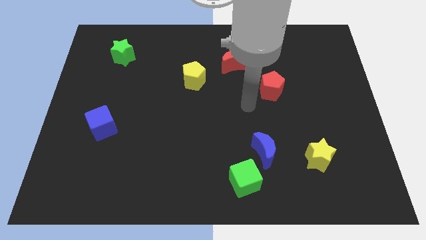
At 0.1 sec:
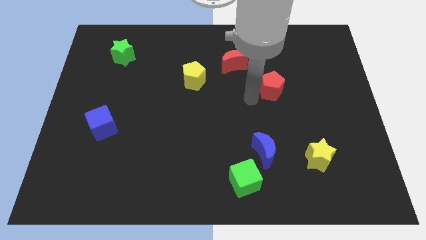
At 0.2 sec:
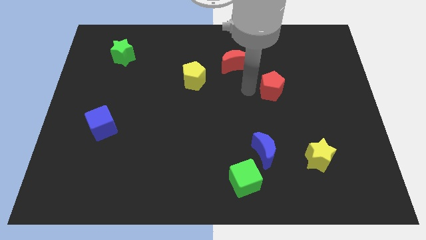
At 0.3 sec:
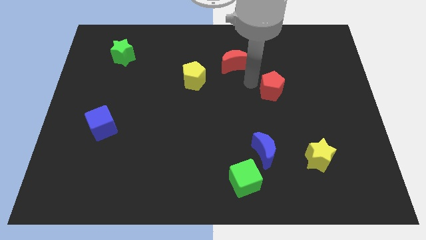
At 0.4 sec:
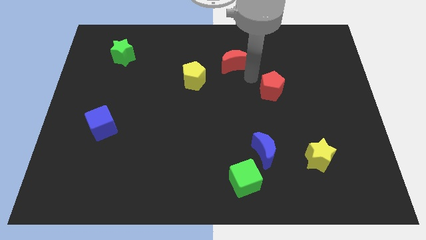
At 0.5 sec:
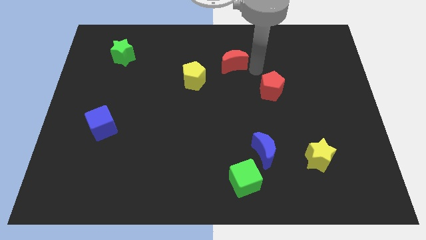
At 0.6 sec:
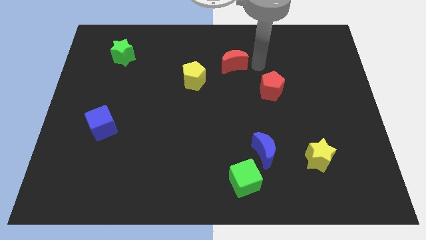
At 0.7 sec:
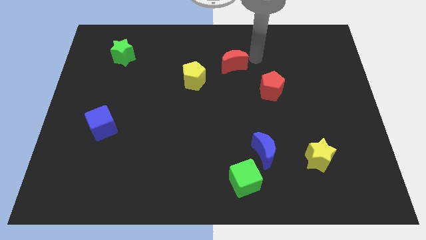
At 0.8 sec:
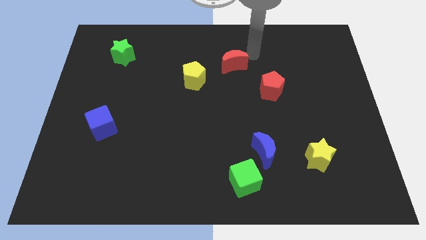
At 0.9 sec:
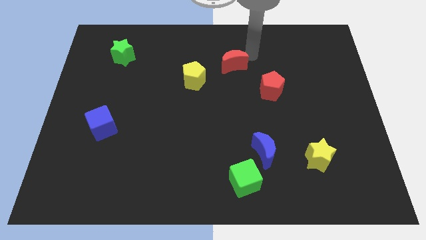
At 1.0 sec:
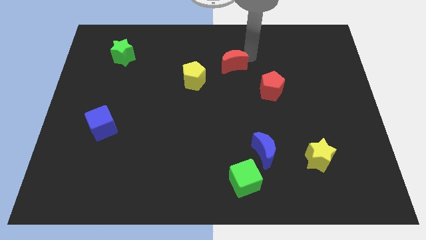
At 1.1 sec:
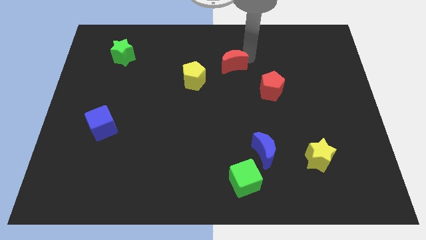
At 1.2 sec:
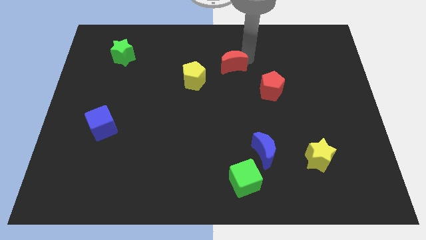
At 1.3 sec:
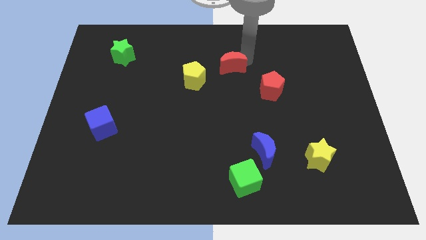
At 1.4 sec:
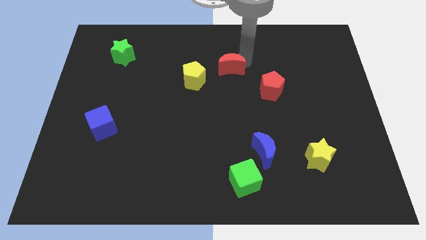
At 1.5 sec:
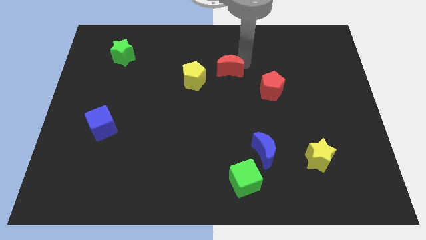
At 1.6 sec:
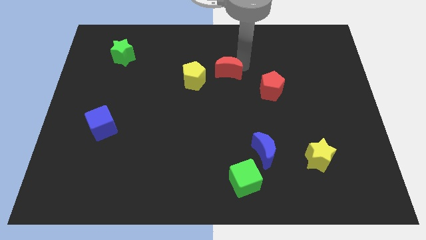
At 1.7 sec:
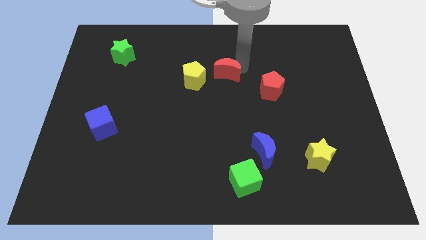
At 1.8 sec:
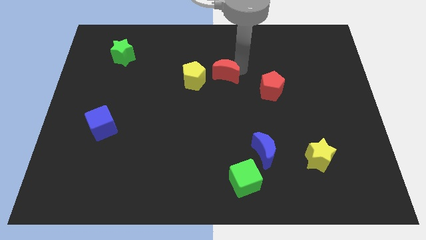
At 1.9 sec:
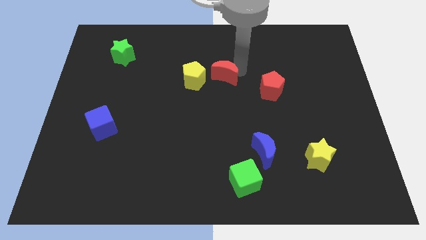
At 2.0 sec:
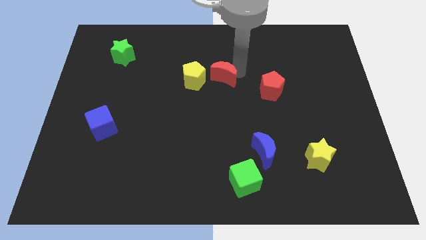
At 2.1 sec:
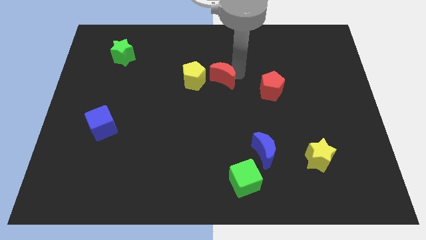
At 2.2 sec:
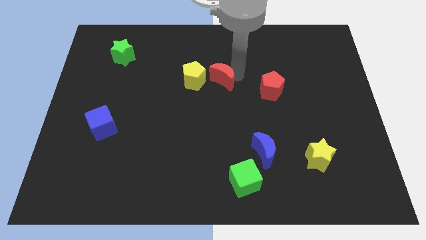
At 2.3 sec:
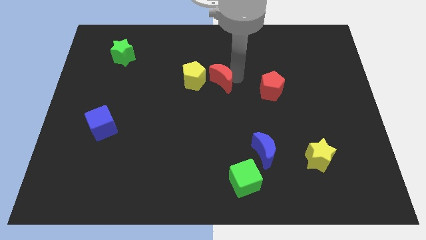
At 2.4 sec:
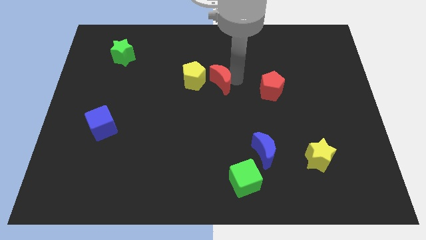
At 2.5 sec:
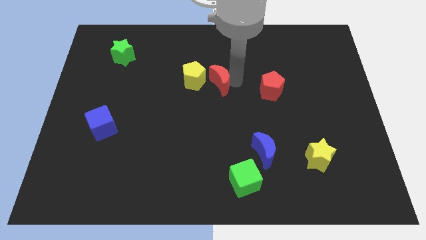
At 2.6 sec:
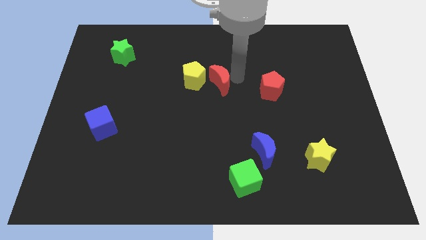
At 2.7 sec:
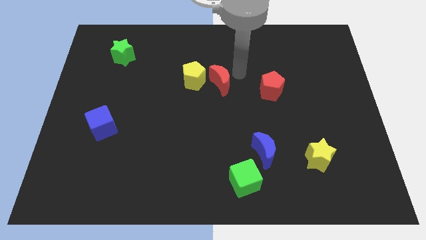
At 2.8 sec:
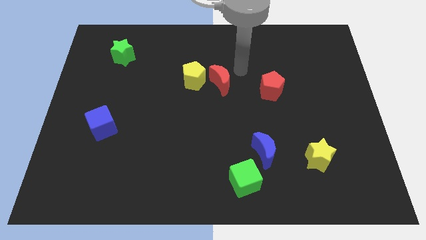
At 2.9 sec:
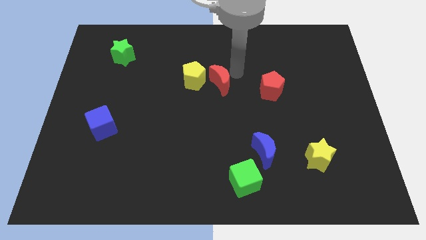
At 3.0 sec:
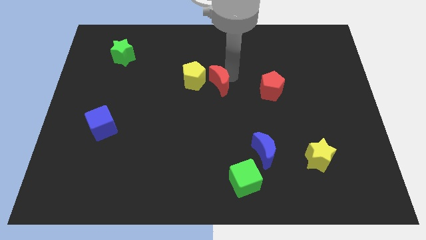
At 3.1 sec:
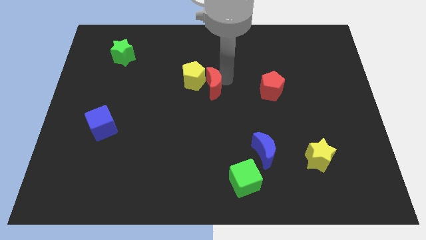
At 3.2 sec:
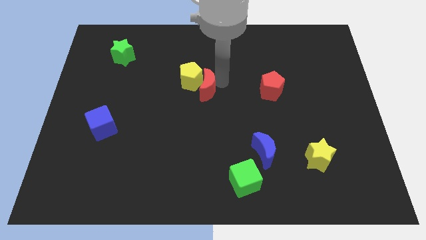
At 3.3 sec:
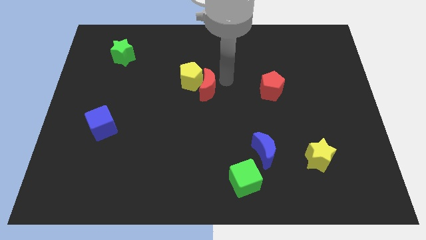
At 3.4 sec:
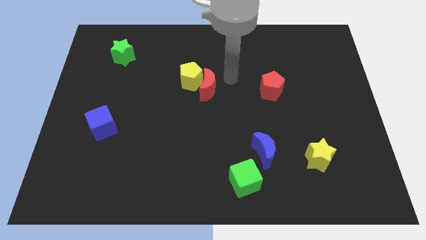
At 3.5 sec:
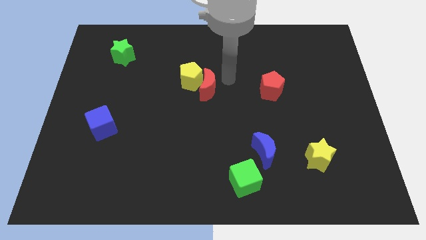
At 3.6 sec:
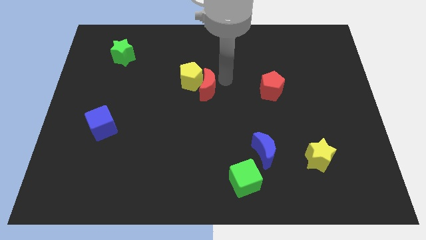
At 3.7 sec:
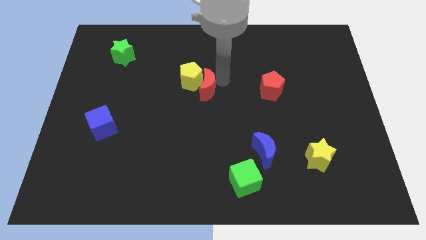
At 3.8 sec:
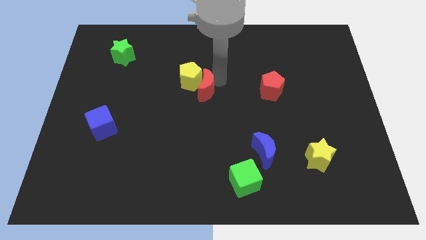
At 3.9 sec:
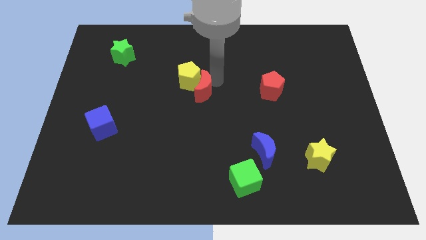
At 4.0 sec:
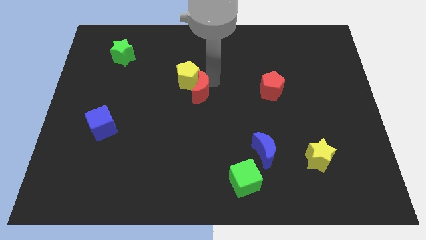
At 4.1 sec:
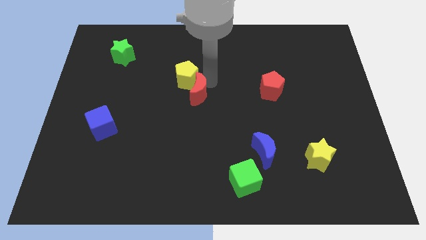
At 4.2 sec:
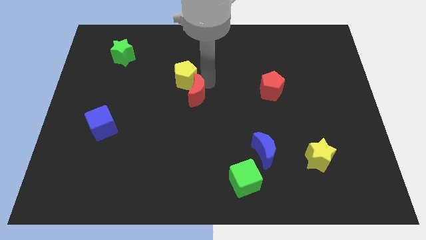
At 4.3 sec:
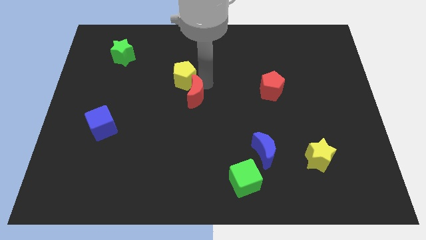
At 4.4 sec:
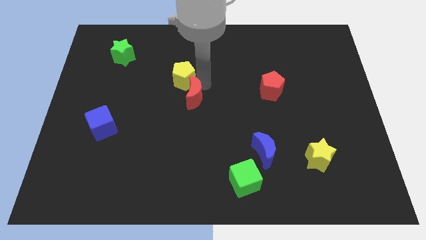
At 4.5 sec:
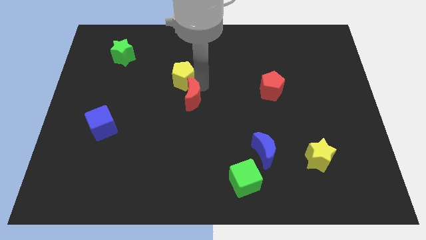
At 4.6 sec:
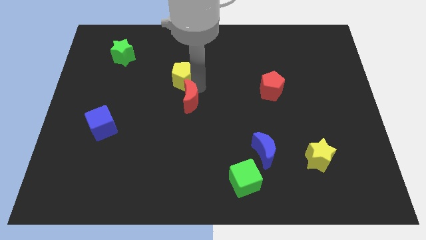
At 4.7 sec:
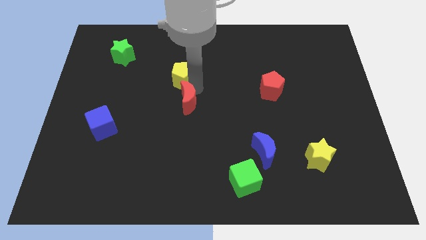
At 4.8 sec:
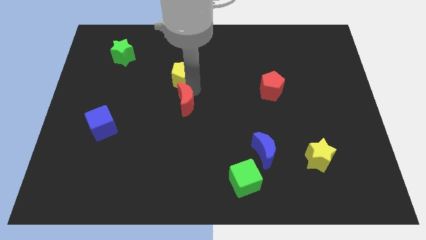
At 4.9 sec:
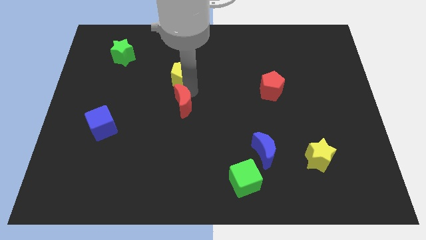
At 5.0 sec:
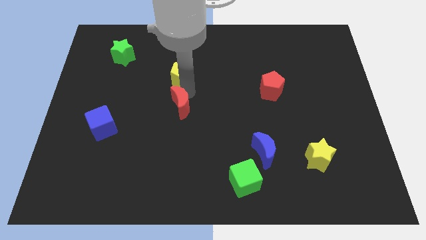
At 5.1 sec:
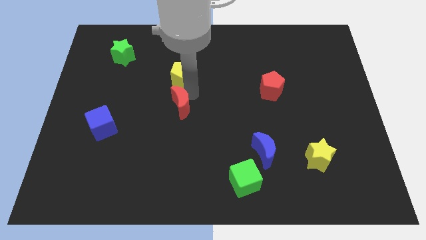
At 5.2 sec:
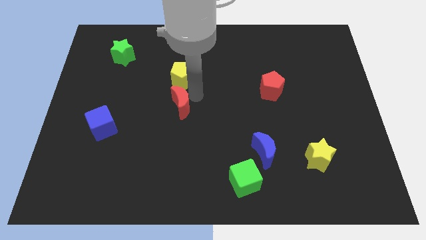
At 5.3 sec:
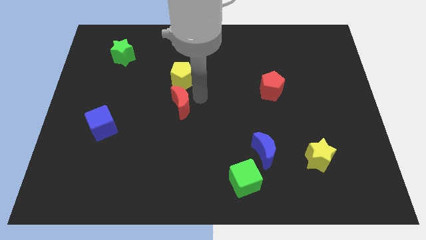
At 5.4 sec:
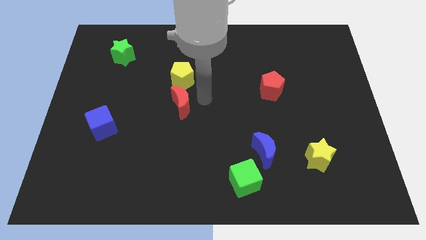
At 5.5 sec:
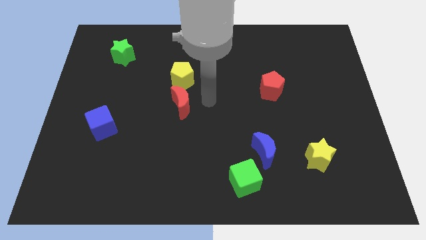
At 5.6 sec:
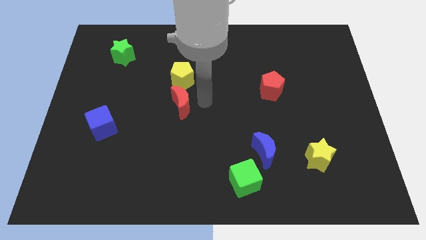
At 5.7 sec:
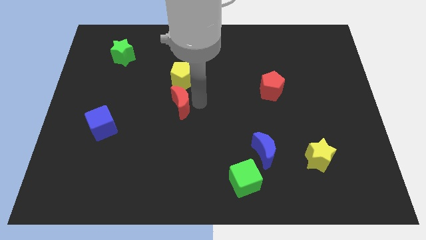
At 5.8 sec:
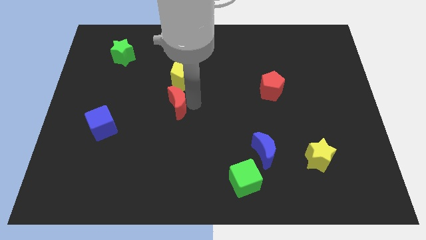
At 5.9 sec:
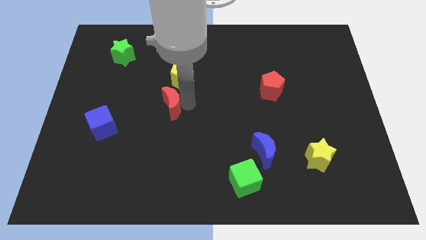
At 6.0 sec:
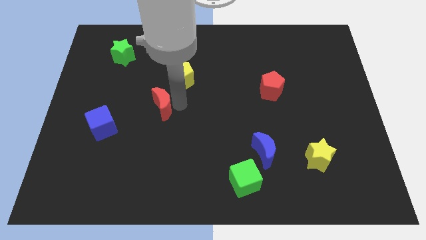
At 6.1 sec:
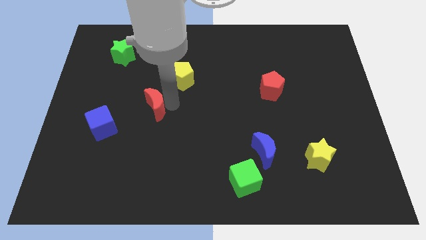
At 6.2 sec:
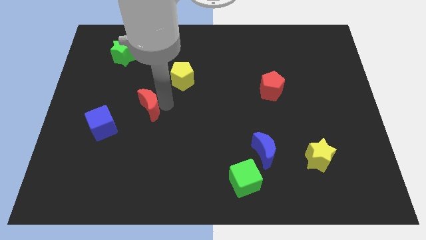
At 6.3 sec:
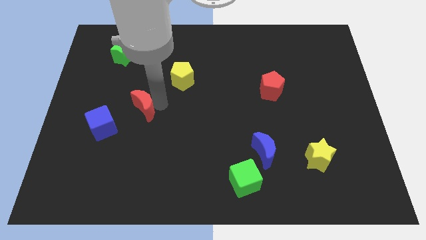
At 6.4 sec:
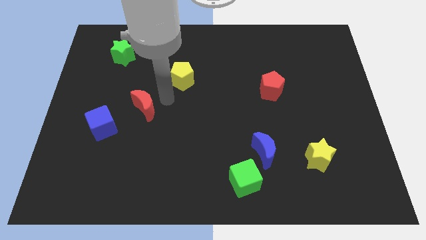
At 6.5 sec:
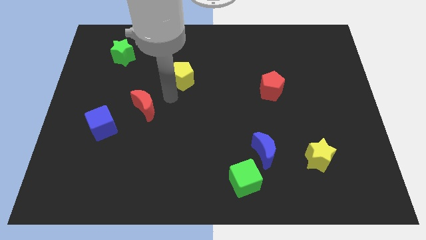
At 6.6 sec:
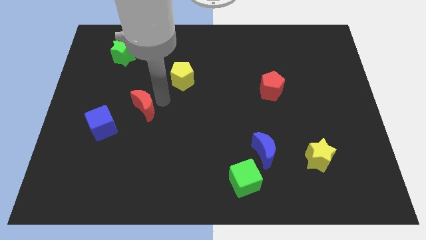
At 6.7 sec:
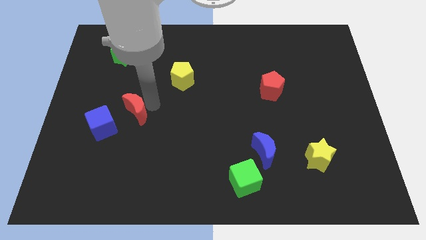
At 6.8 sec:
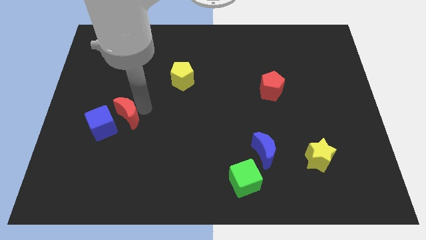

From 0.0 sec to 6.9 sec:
put the red moon next to the blue cube

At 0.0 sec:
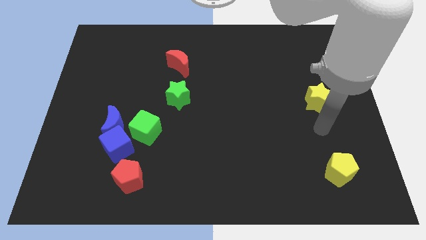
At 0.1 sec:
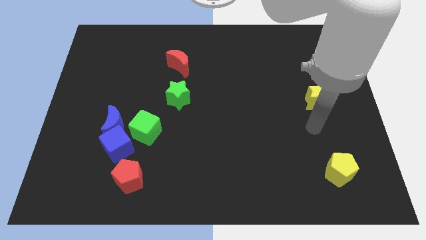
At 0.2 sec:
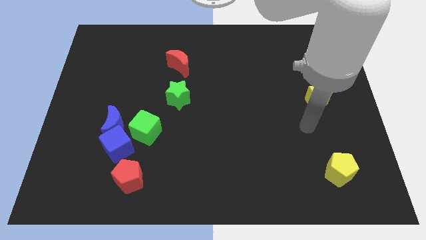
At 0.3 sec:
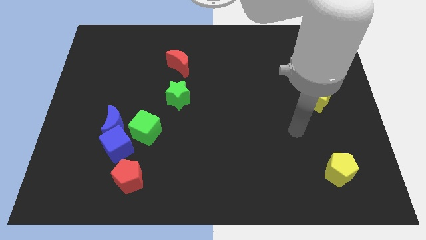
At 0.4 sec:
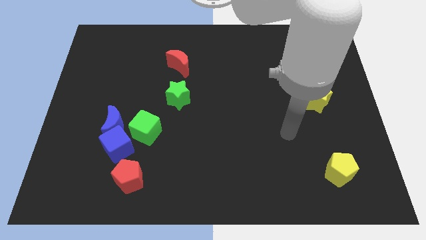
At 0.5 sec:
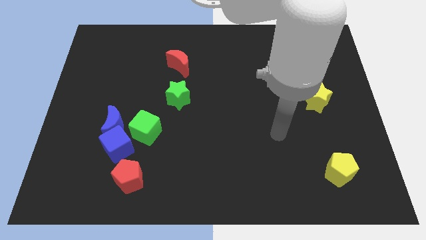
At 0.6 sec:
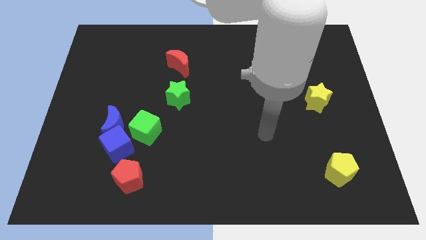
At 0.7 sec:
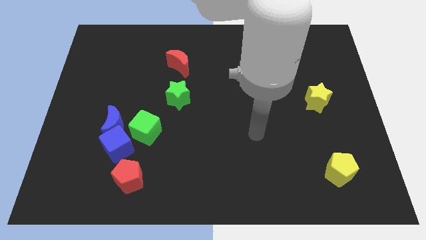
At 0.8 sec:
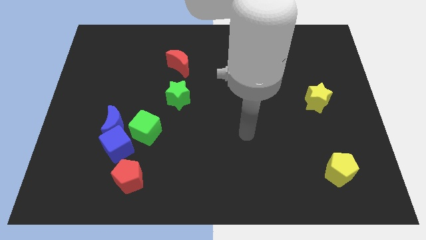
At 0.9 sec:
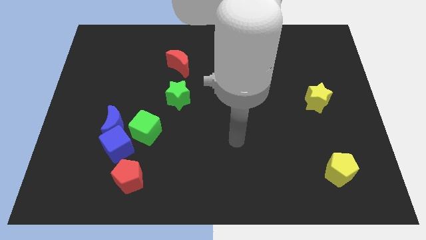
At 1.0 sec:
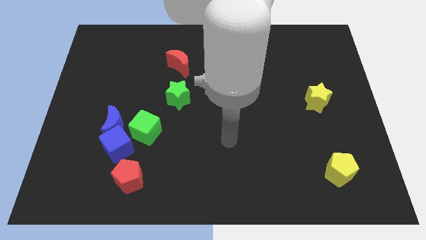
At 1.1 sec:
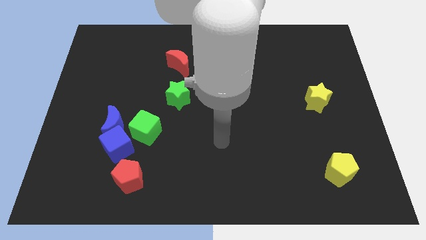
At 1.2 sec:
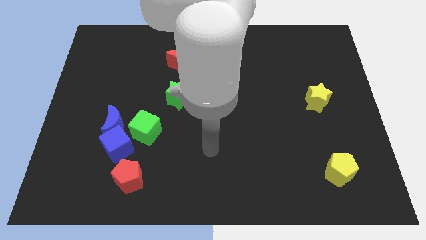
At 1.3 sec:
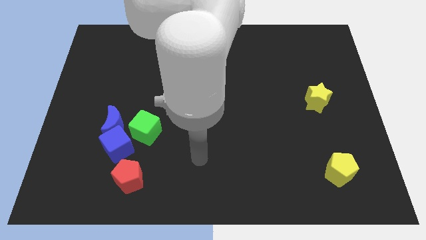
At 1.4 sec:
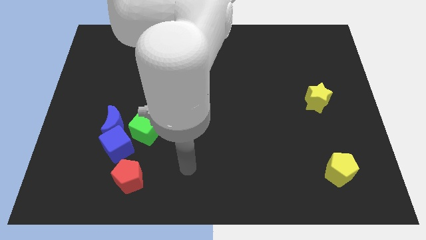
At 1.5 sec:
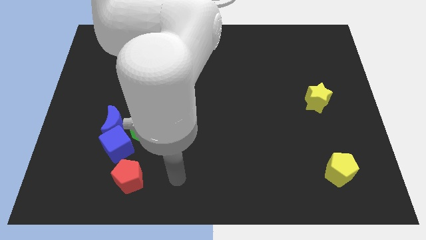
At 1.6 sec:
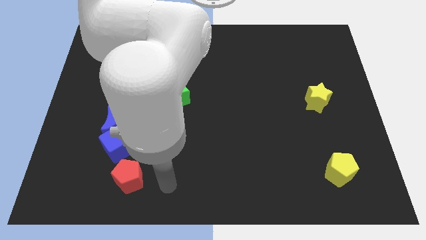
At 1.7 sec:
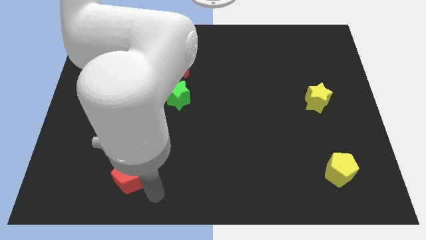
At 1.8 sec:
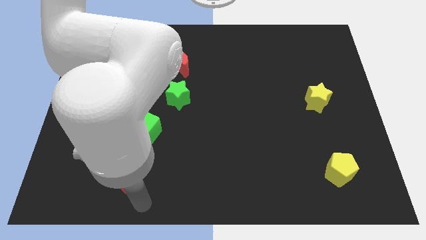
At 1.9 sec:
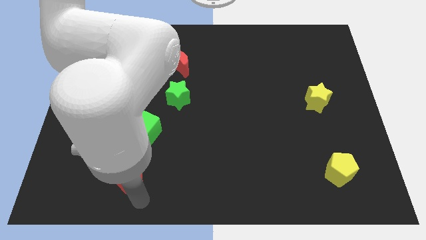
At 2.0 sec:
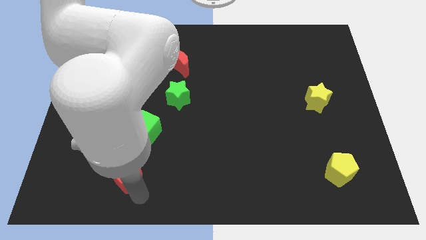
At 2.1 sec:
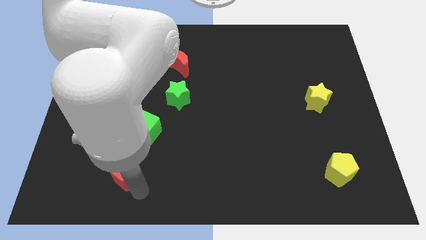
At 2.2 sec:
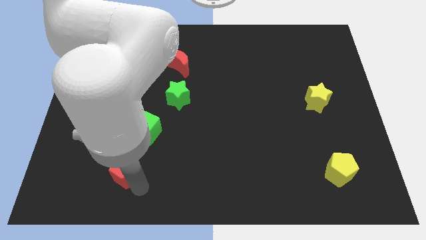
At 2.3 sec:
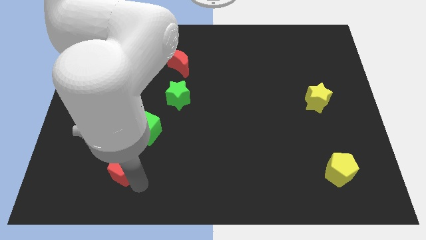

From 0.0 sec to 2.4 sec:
move the red pentagon towards the blue cube
